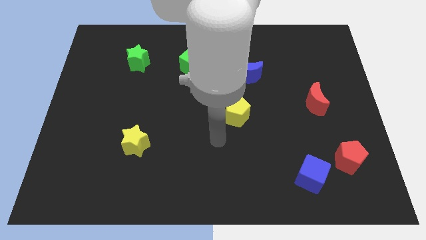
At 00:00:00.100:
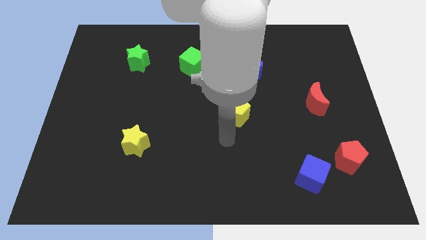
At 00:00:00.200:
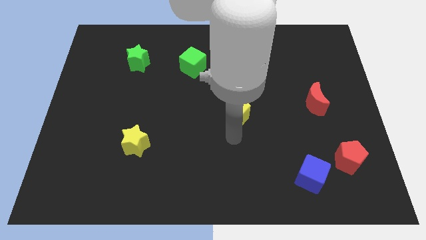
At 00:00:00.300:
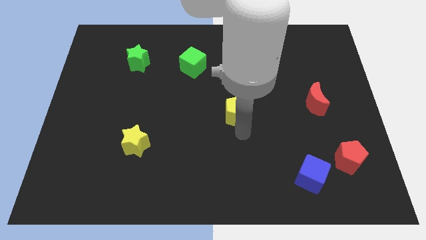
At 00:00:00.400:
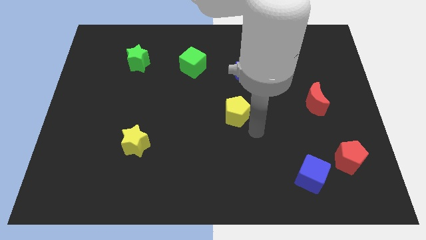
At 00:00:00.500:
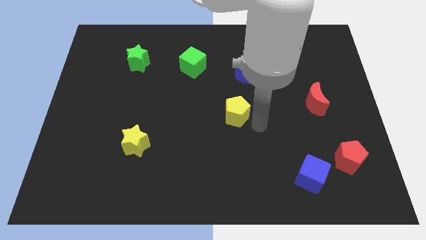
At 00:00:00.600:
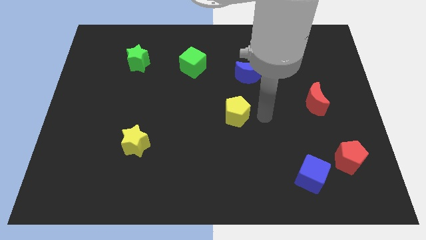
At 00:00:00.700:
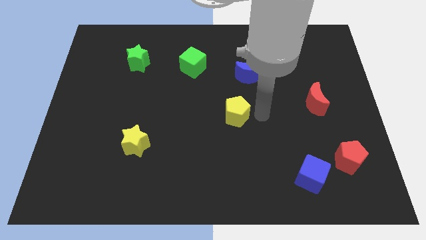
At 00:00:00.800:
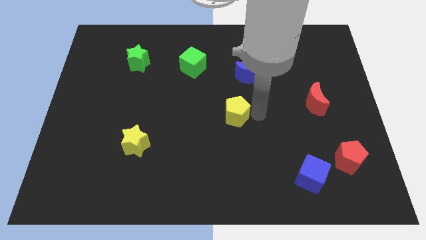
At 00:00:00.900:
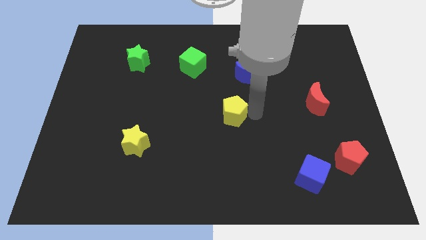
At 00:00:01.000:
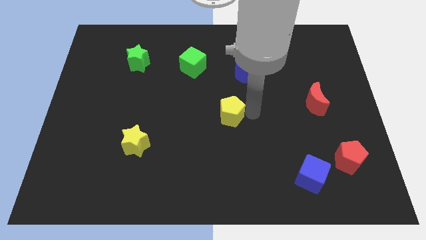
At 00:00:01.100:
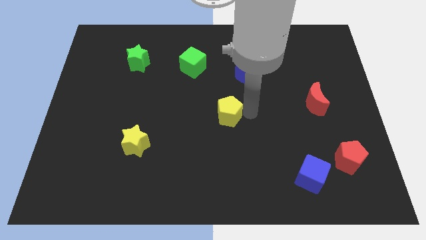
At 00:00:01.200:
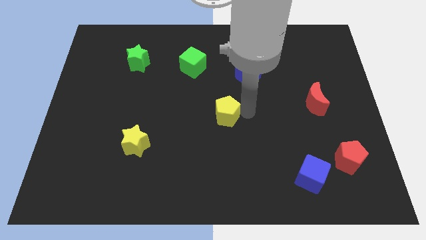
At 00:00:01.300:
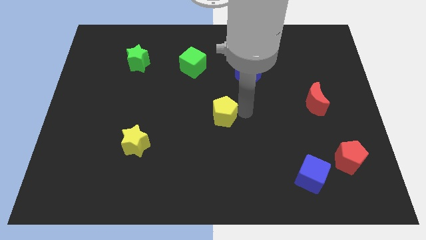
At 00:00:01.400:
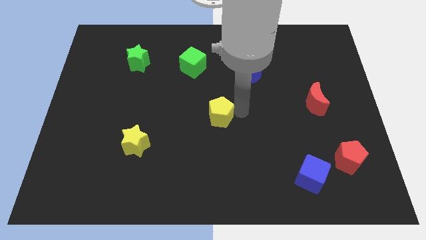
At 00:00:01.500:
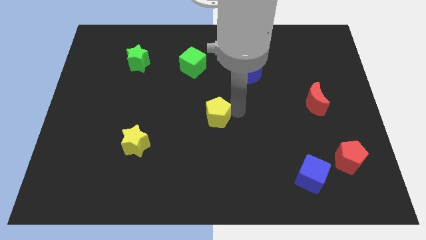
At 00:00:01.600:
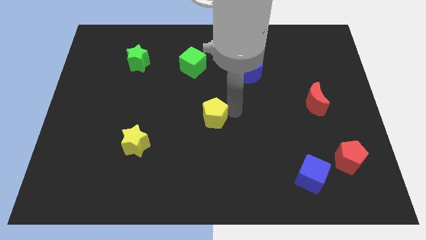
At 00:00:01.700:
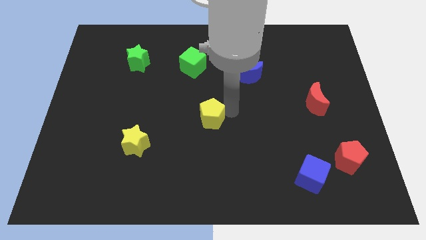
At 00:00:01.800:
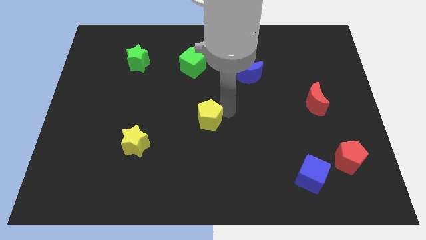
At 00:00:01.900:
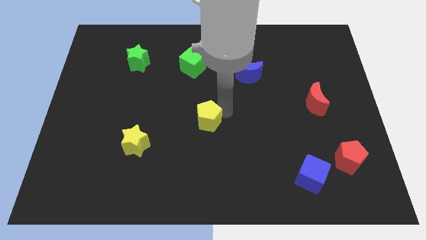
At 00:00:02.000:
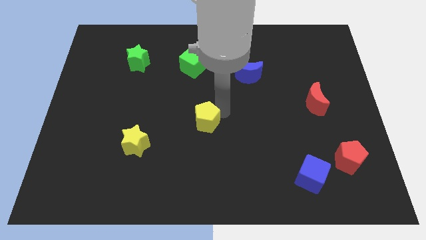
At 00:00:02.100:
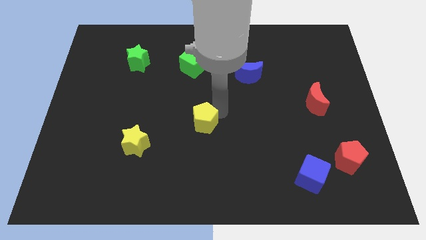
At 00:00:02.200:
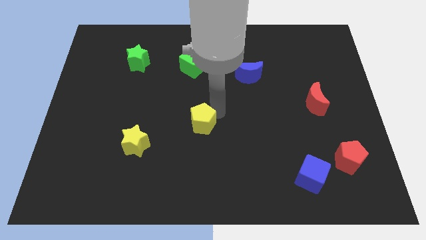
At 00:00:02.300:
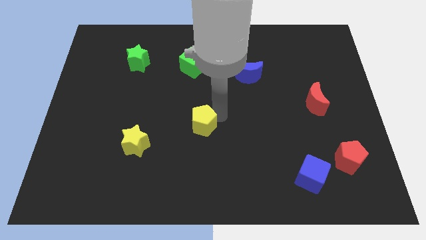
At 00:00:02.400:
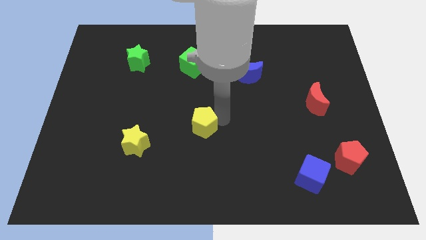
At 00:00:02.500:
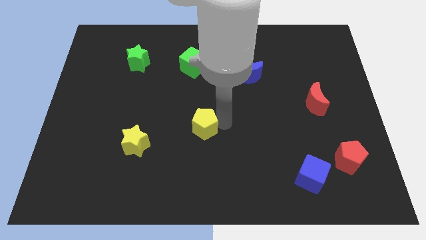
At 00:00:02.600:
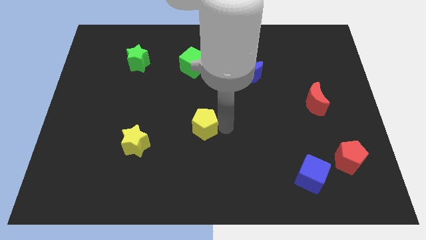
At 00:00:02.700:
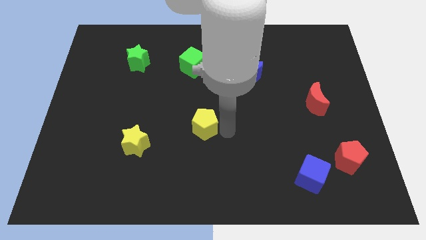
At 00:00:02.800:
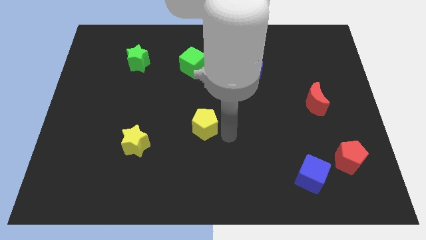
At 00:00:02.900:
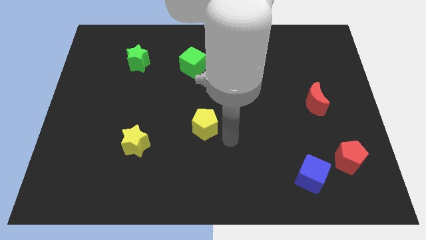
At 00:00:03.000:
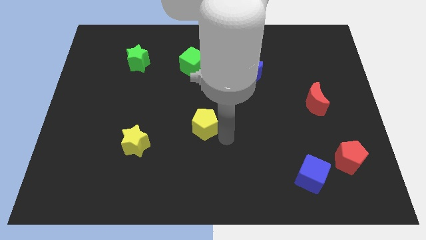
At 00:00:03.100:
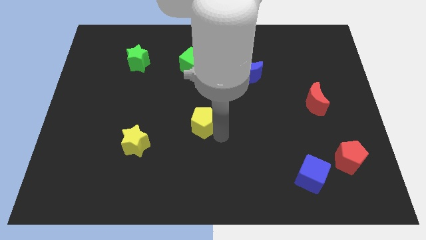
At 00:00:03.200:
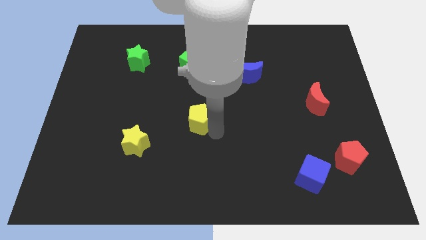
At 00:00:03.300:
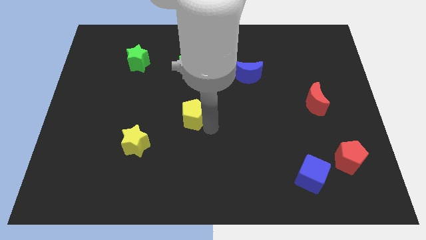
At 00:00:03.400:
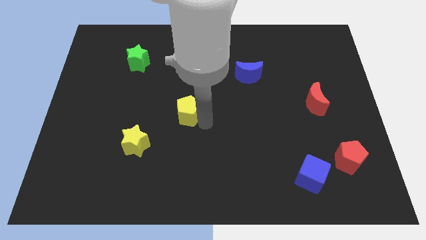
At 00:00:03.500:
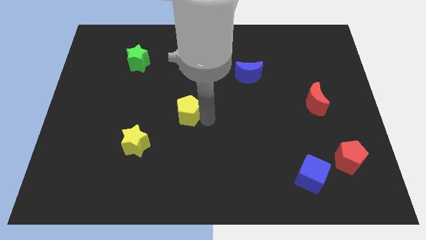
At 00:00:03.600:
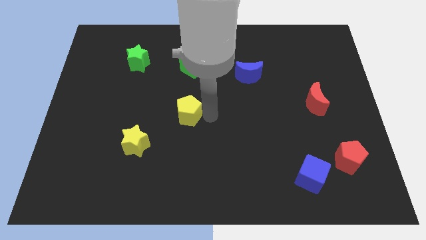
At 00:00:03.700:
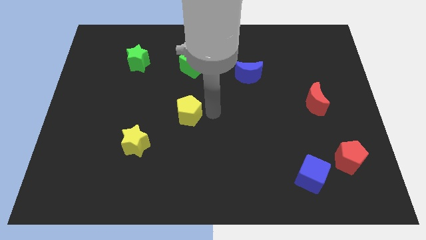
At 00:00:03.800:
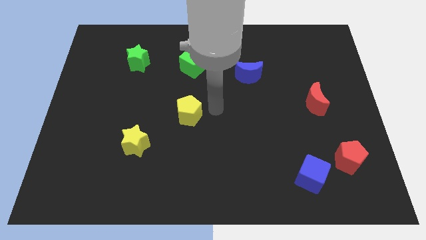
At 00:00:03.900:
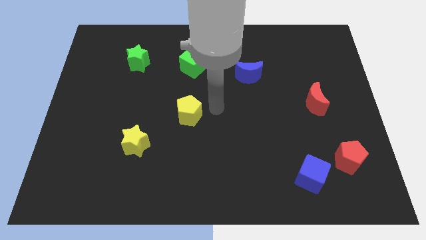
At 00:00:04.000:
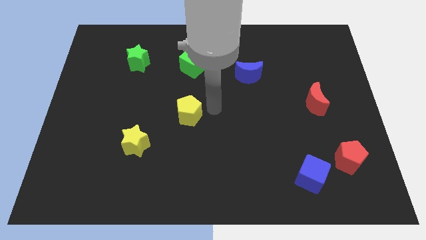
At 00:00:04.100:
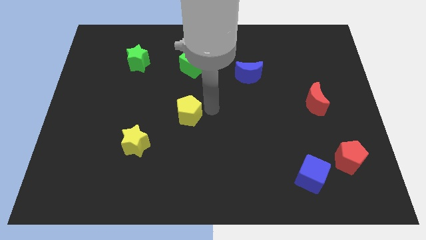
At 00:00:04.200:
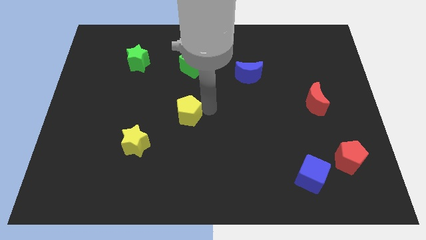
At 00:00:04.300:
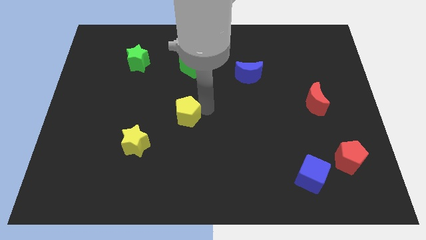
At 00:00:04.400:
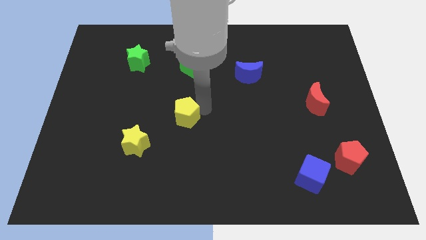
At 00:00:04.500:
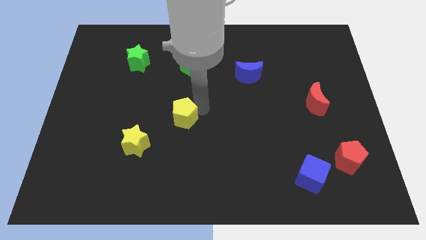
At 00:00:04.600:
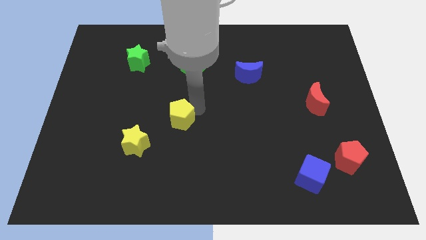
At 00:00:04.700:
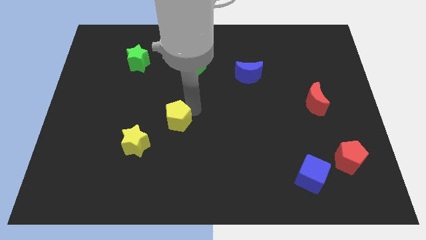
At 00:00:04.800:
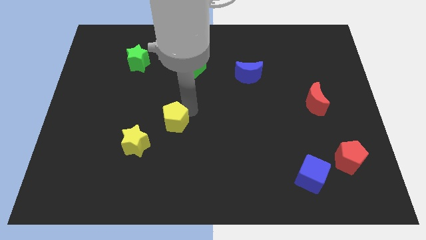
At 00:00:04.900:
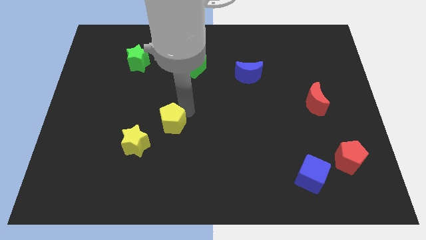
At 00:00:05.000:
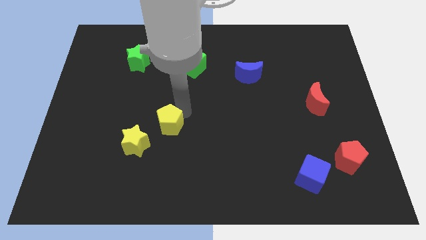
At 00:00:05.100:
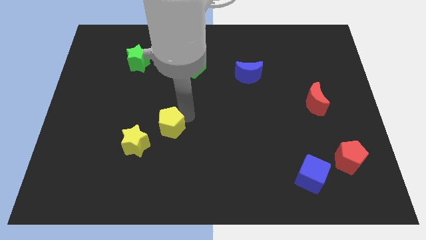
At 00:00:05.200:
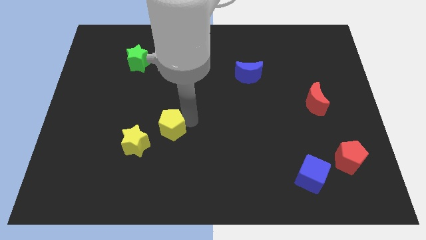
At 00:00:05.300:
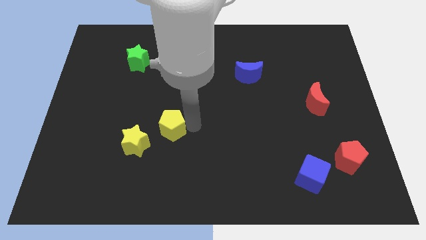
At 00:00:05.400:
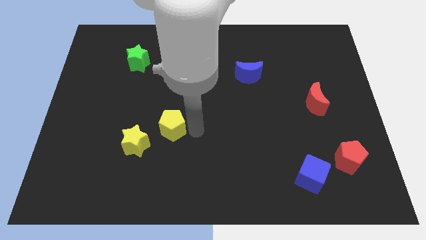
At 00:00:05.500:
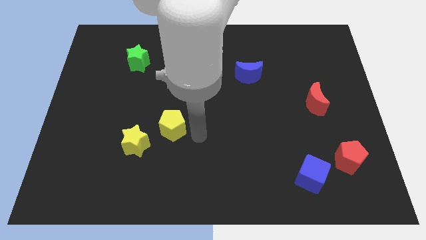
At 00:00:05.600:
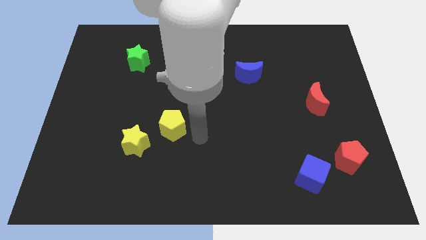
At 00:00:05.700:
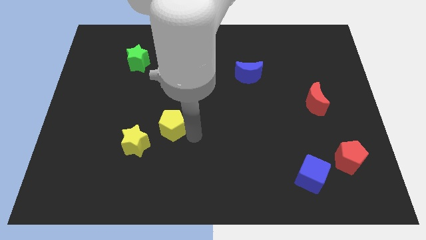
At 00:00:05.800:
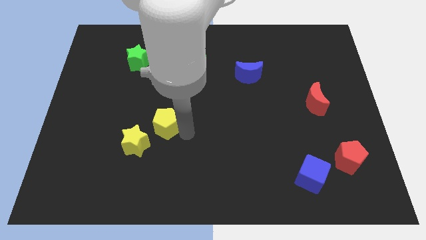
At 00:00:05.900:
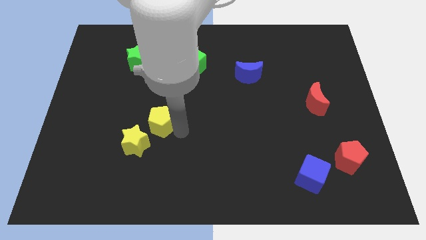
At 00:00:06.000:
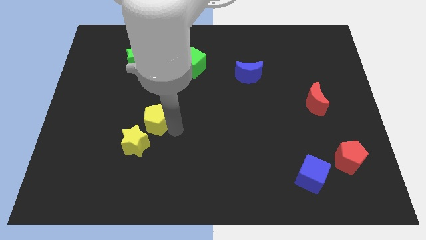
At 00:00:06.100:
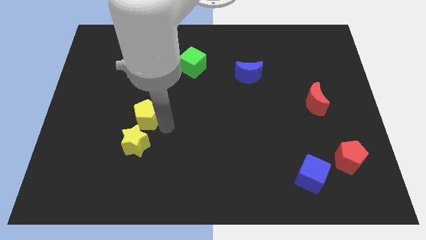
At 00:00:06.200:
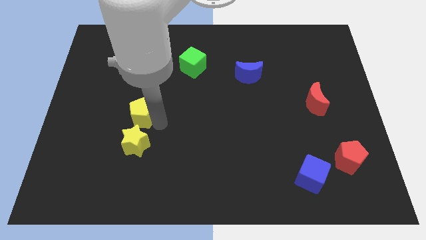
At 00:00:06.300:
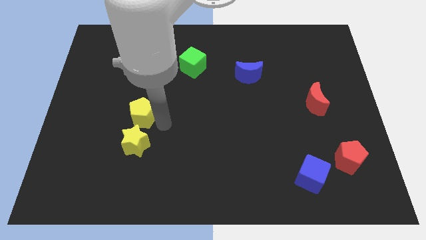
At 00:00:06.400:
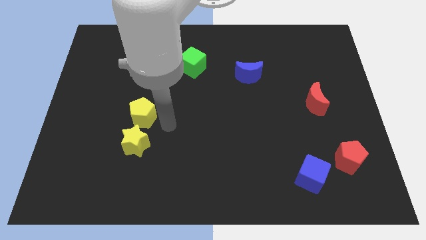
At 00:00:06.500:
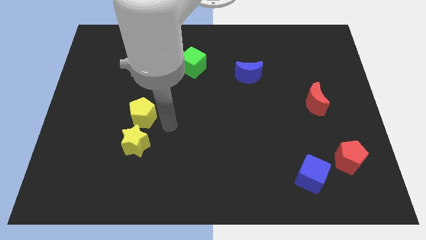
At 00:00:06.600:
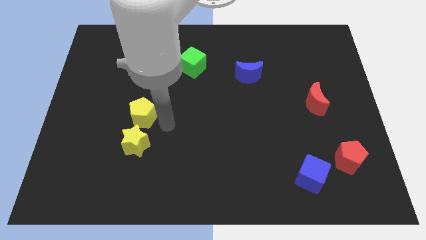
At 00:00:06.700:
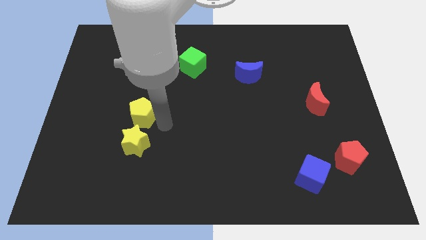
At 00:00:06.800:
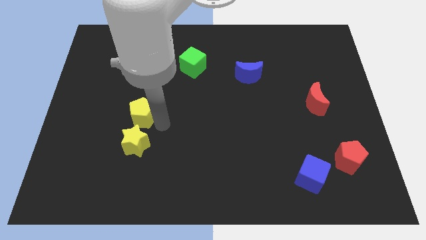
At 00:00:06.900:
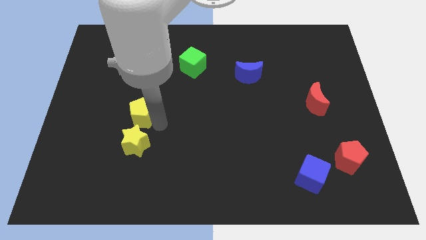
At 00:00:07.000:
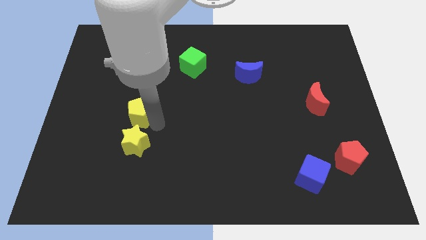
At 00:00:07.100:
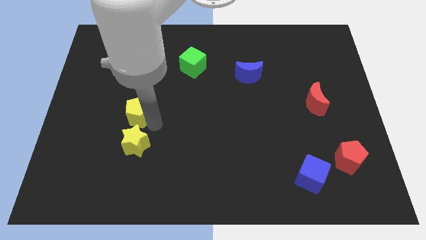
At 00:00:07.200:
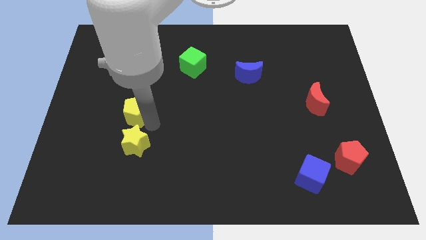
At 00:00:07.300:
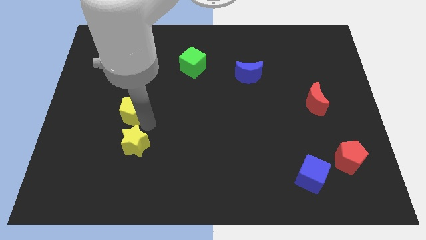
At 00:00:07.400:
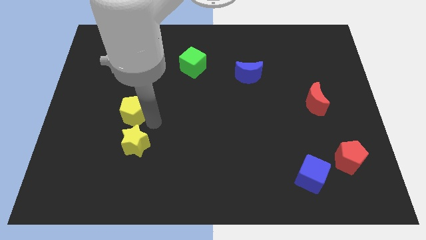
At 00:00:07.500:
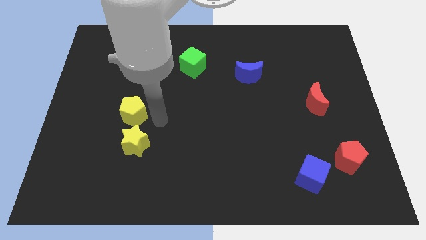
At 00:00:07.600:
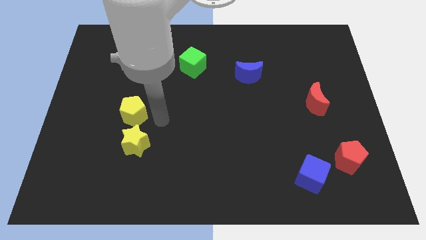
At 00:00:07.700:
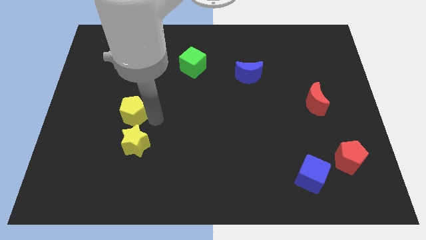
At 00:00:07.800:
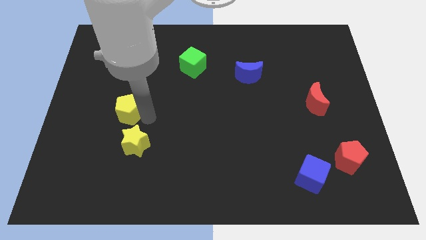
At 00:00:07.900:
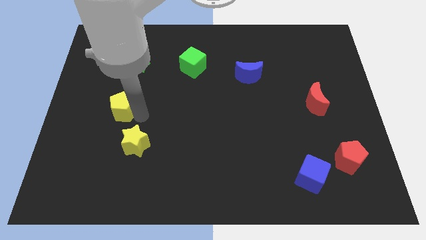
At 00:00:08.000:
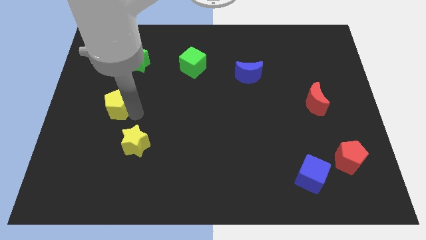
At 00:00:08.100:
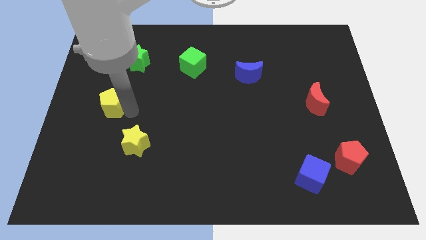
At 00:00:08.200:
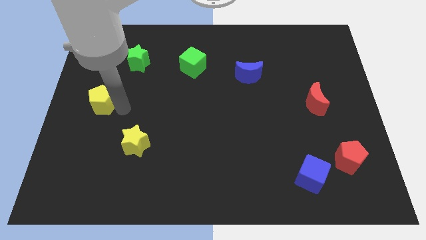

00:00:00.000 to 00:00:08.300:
slide the yellow pentagon to the center left
